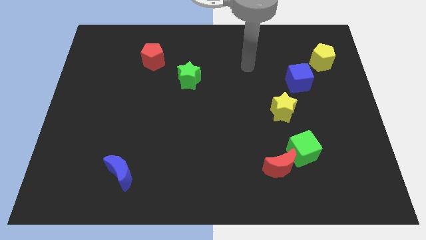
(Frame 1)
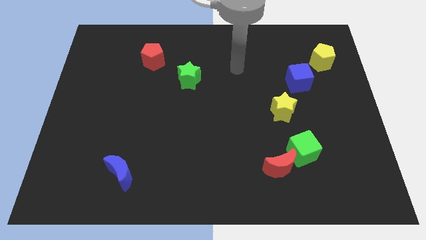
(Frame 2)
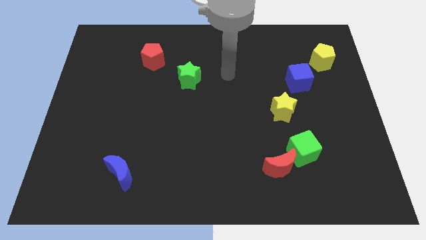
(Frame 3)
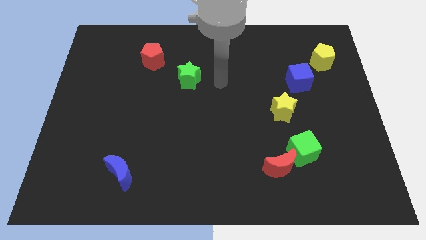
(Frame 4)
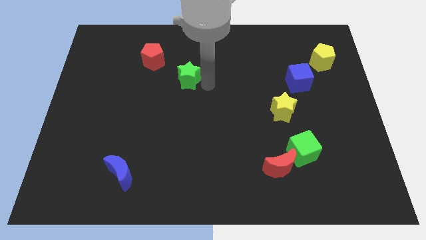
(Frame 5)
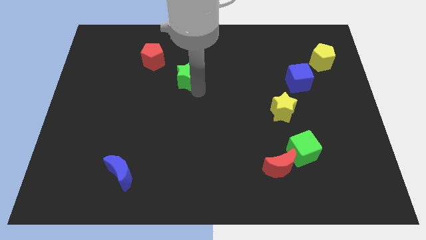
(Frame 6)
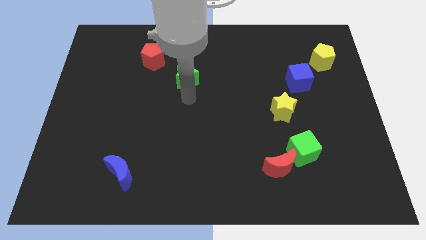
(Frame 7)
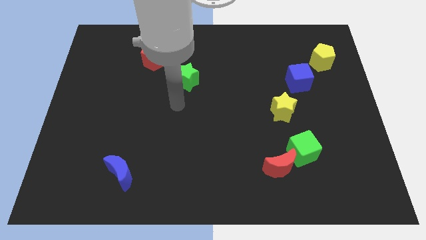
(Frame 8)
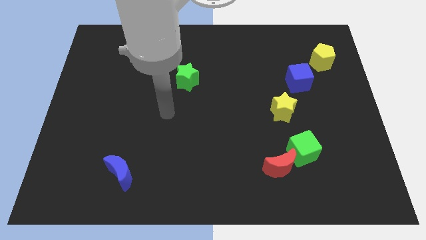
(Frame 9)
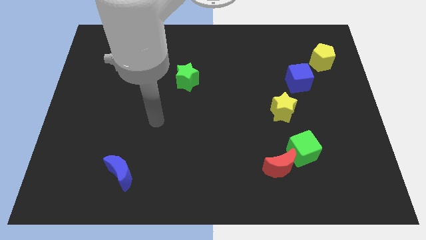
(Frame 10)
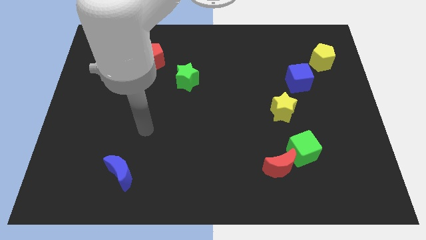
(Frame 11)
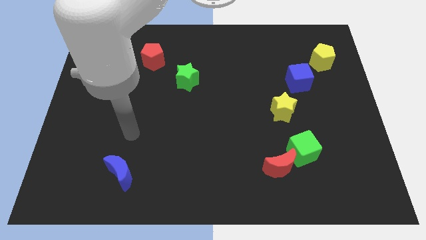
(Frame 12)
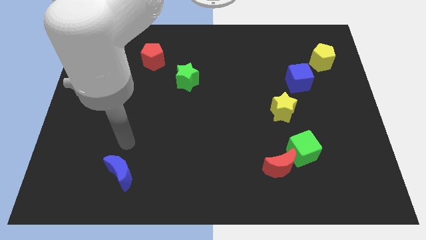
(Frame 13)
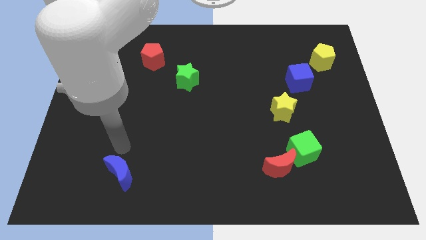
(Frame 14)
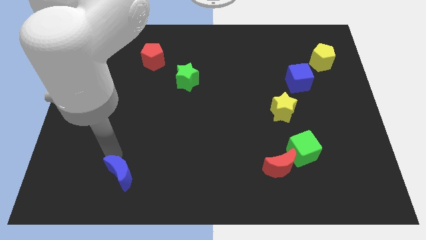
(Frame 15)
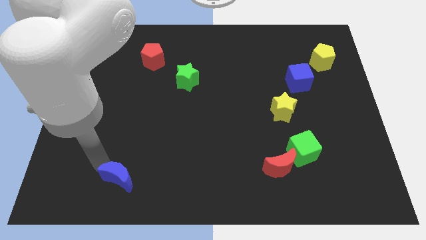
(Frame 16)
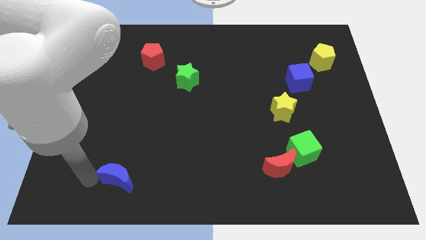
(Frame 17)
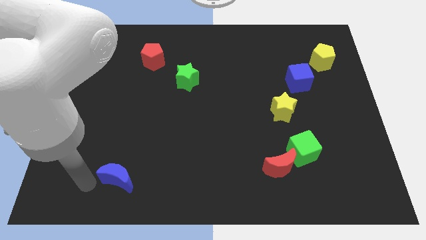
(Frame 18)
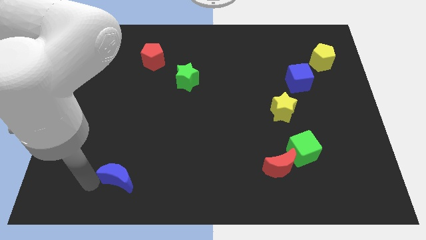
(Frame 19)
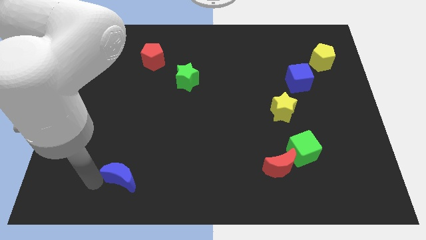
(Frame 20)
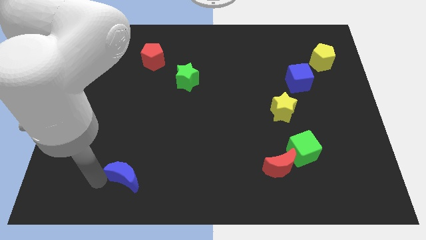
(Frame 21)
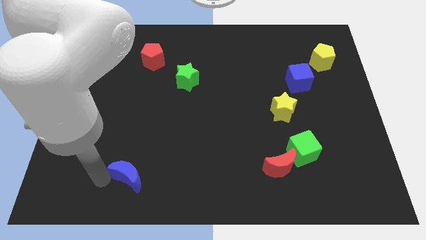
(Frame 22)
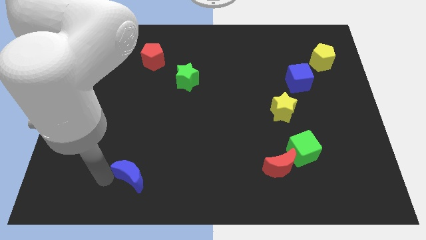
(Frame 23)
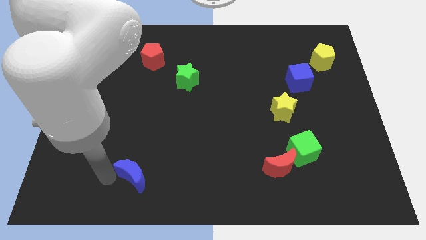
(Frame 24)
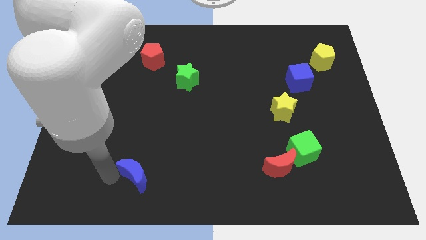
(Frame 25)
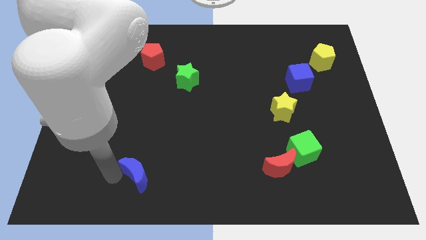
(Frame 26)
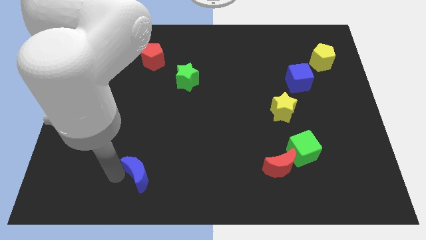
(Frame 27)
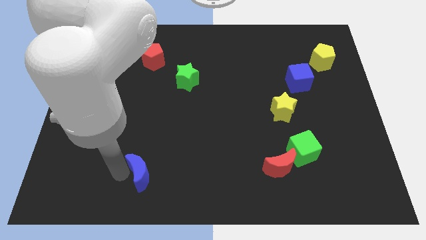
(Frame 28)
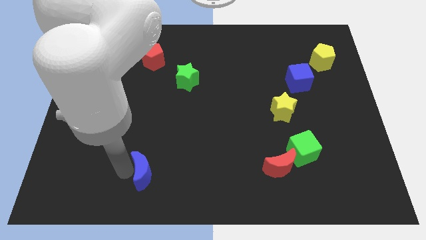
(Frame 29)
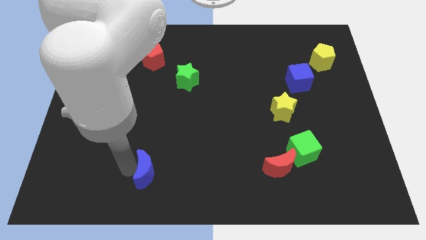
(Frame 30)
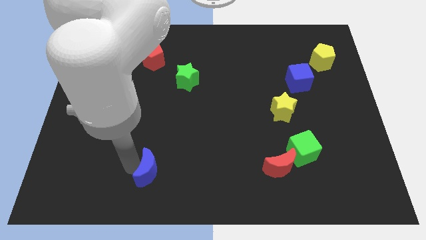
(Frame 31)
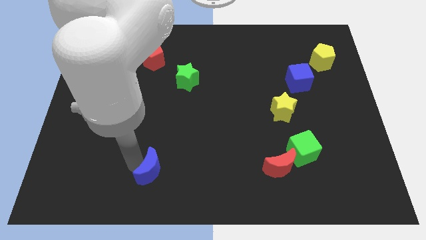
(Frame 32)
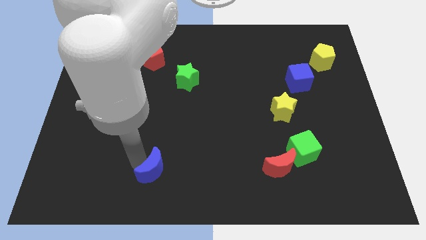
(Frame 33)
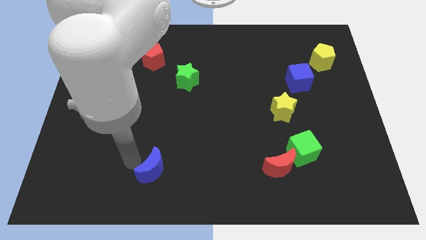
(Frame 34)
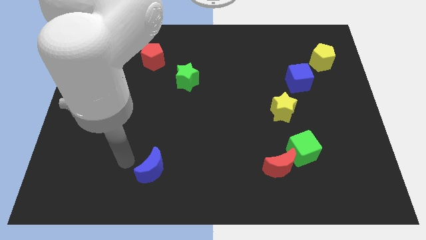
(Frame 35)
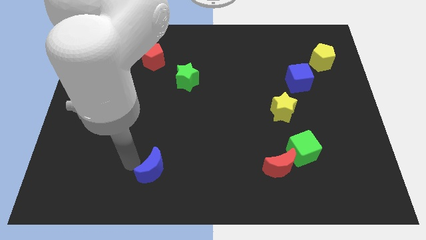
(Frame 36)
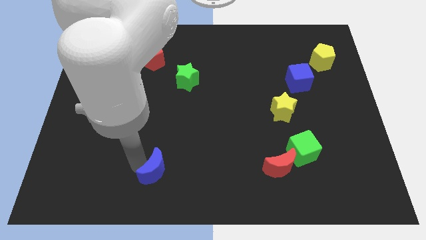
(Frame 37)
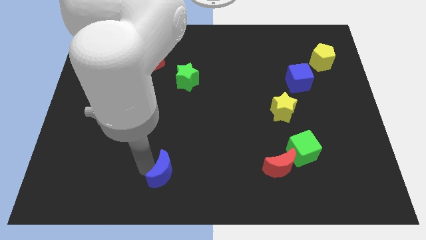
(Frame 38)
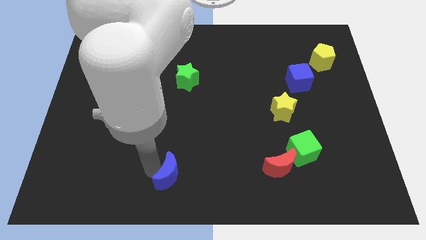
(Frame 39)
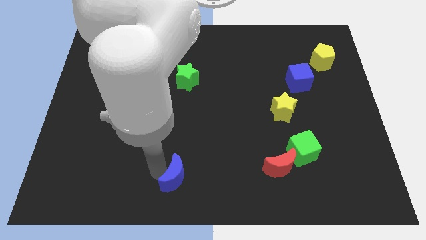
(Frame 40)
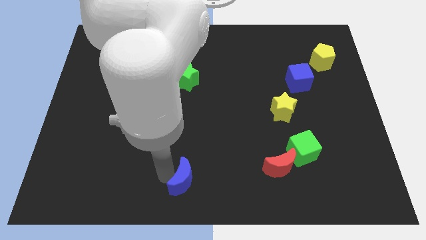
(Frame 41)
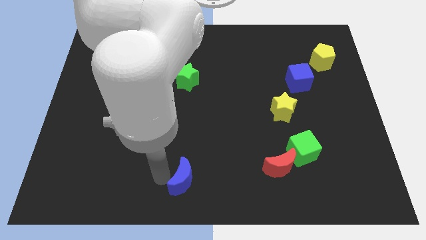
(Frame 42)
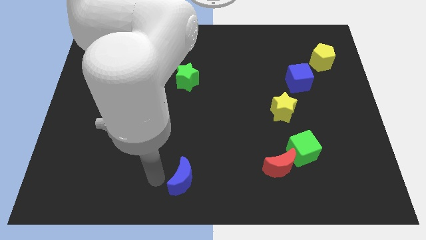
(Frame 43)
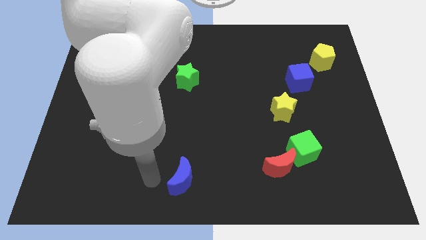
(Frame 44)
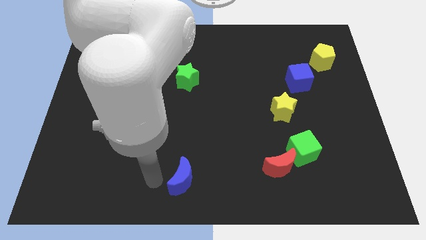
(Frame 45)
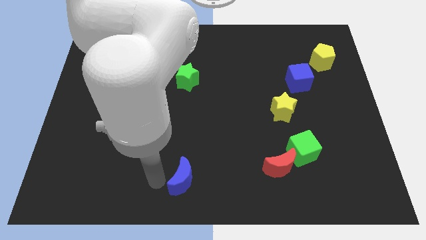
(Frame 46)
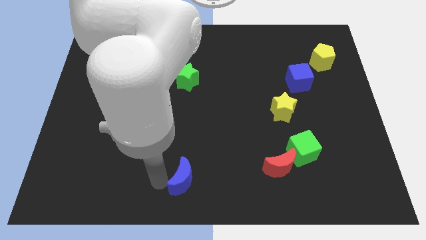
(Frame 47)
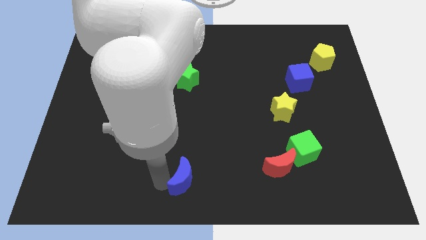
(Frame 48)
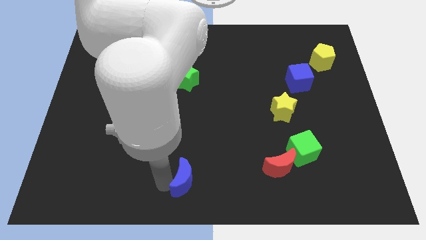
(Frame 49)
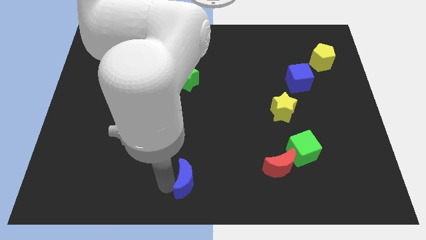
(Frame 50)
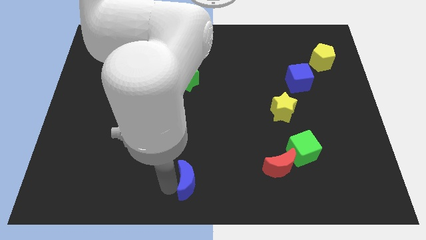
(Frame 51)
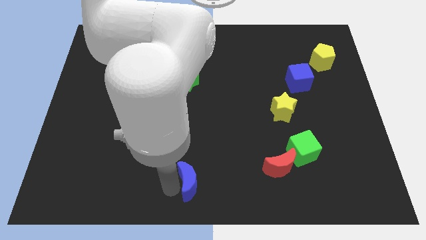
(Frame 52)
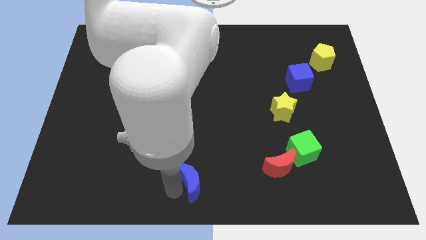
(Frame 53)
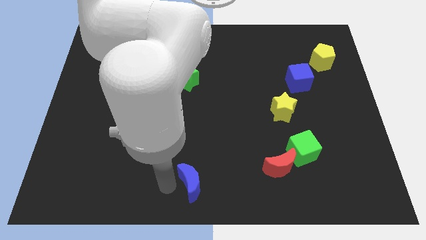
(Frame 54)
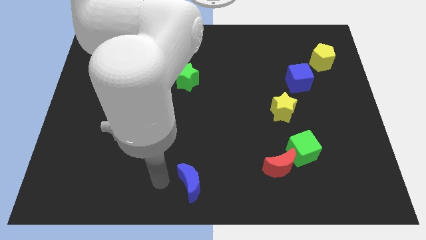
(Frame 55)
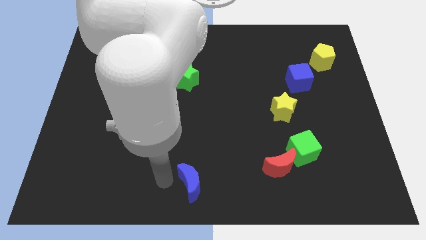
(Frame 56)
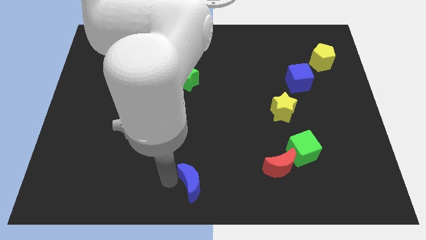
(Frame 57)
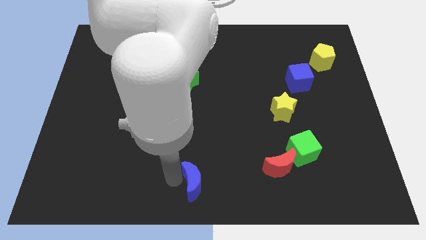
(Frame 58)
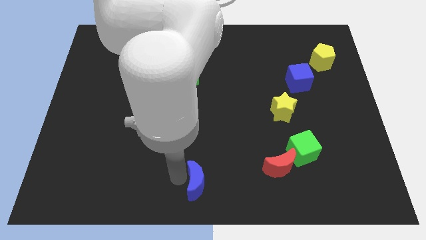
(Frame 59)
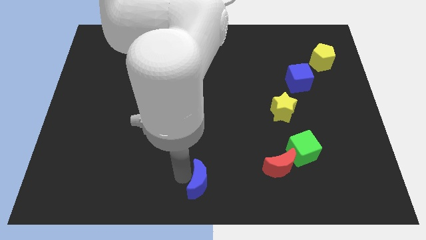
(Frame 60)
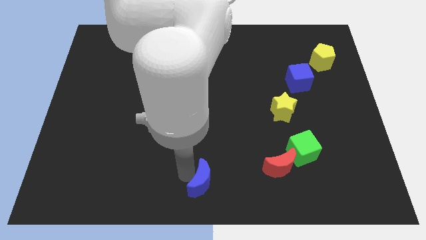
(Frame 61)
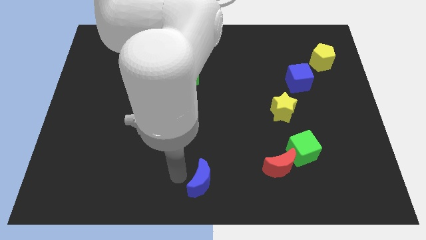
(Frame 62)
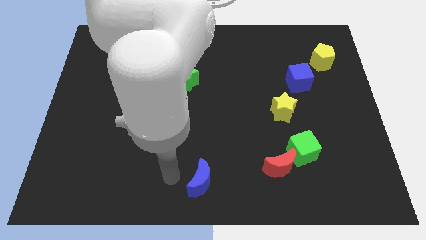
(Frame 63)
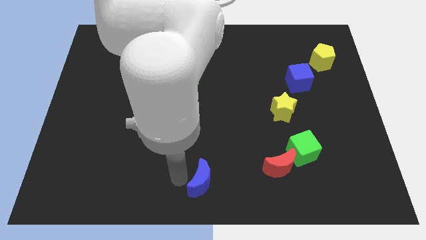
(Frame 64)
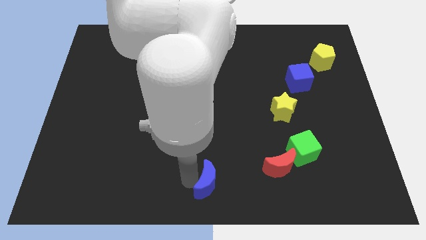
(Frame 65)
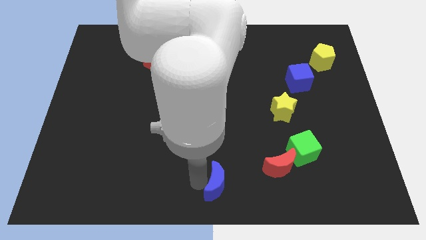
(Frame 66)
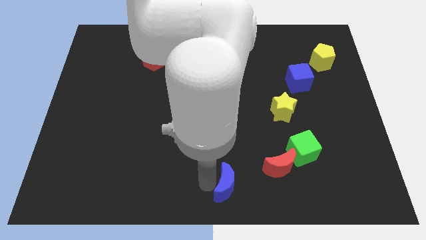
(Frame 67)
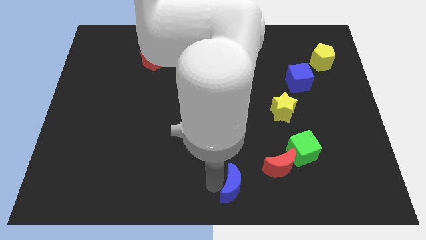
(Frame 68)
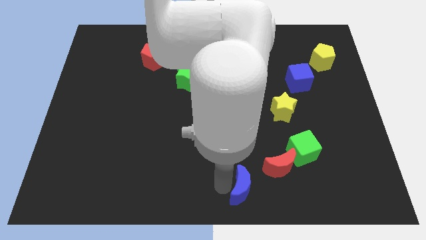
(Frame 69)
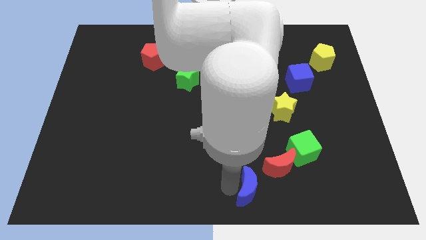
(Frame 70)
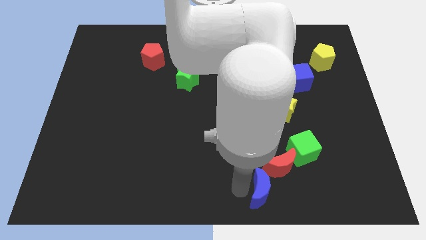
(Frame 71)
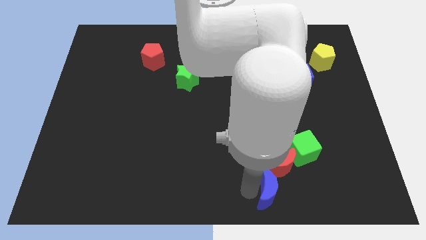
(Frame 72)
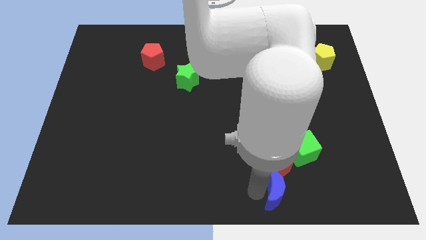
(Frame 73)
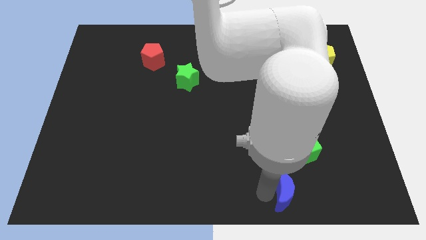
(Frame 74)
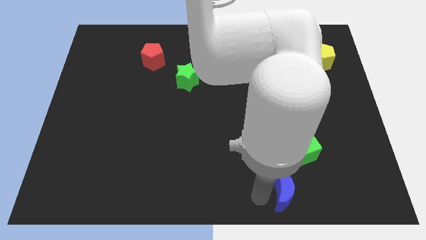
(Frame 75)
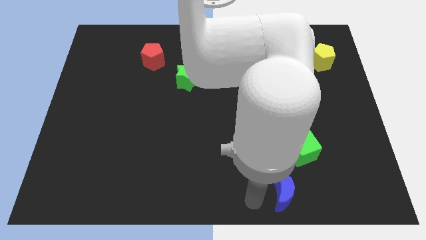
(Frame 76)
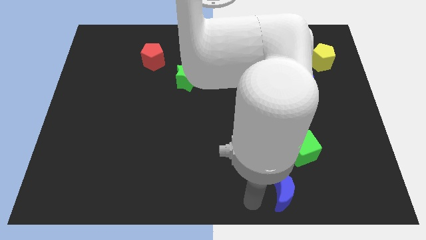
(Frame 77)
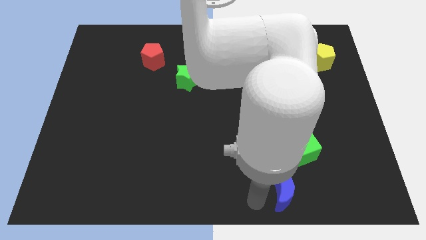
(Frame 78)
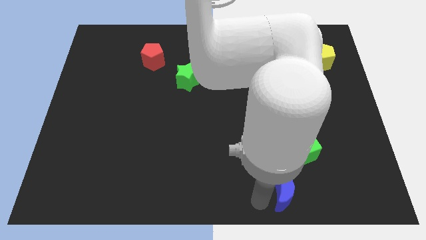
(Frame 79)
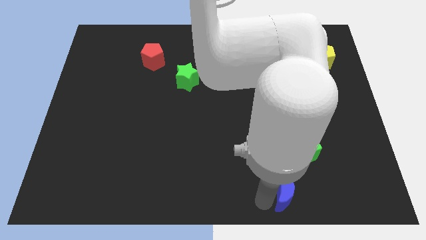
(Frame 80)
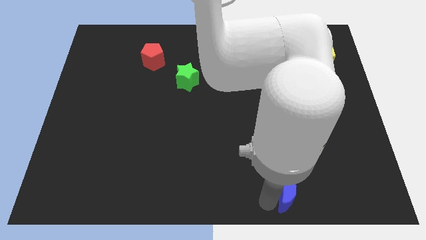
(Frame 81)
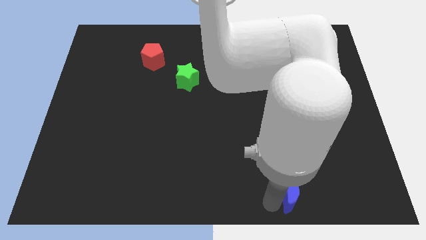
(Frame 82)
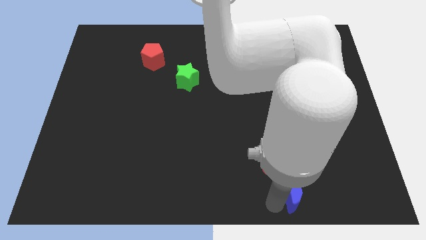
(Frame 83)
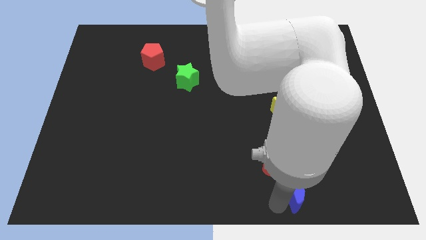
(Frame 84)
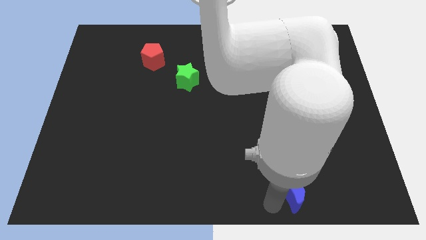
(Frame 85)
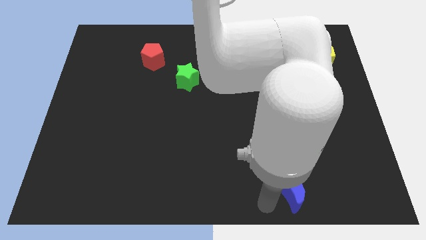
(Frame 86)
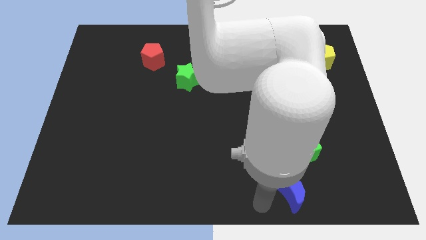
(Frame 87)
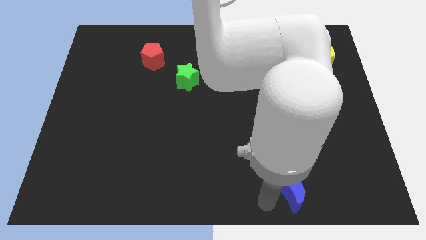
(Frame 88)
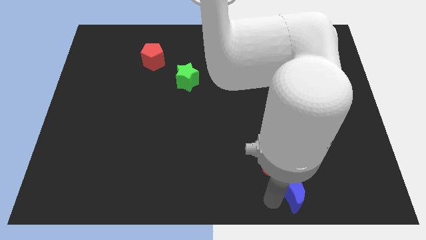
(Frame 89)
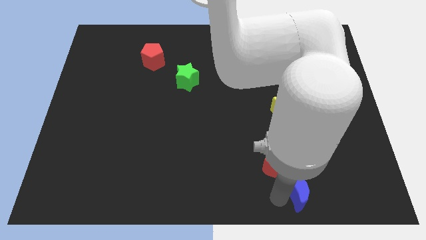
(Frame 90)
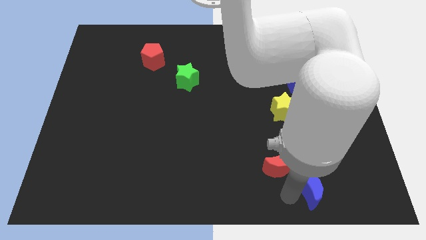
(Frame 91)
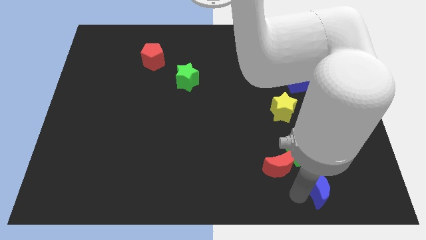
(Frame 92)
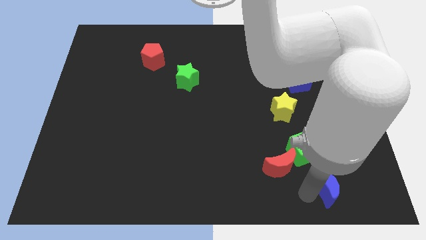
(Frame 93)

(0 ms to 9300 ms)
put the blue moon diagonally down and to the right of the green cube
